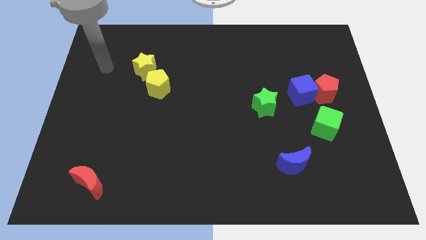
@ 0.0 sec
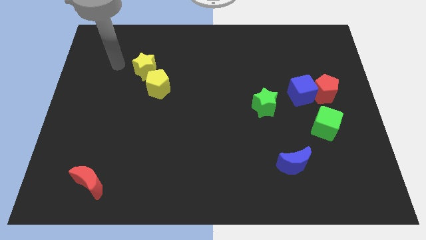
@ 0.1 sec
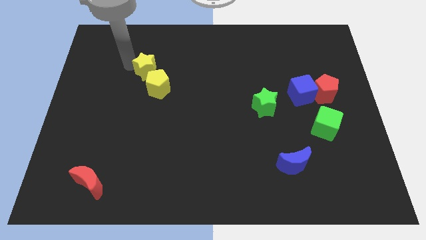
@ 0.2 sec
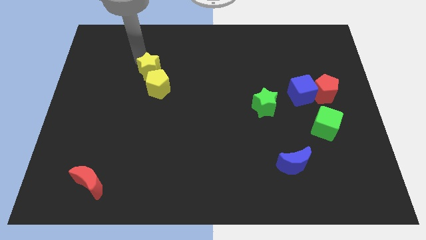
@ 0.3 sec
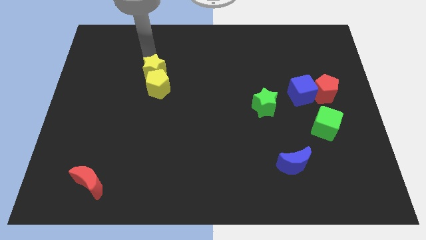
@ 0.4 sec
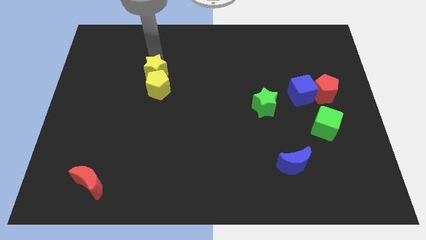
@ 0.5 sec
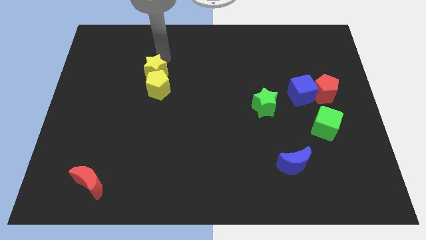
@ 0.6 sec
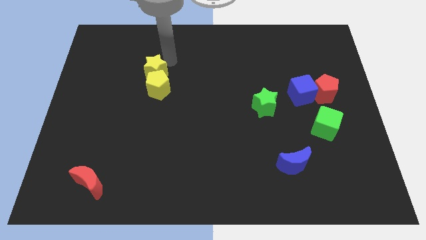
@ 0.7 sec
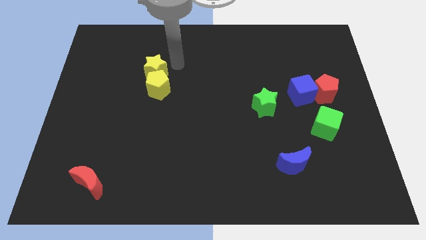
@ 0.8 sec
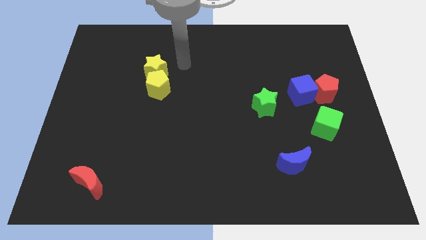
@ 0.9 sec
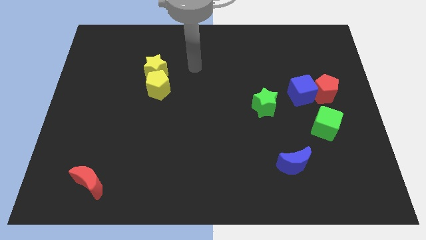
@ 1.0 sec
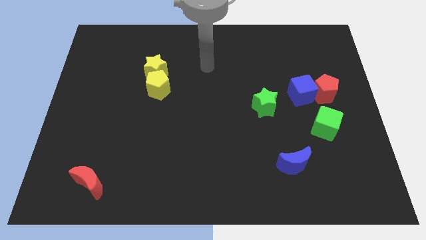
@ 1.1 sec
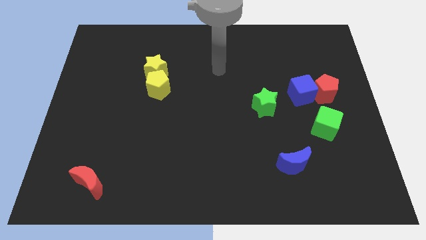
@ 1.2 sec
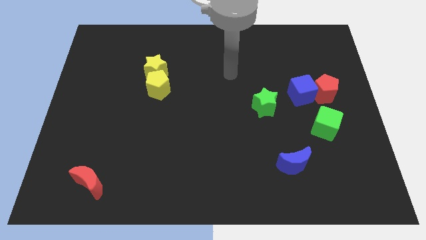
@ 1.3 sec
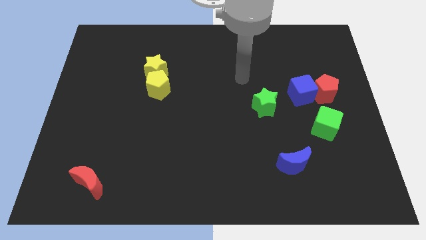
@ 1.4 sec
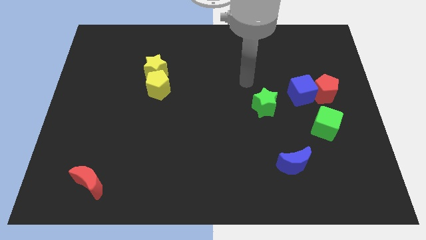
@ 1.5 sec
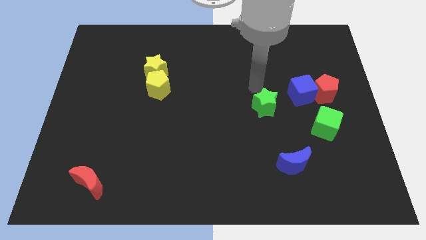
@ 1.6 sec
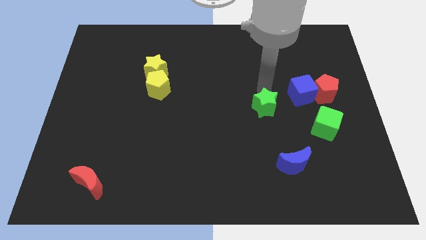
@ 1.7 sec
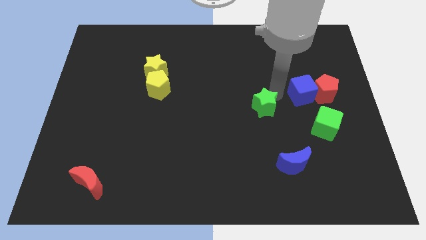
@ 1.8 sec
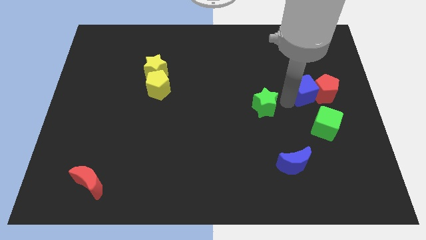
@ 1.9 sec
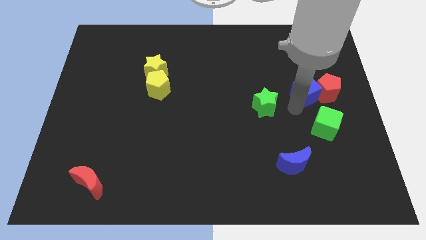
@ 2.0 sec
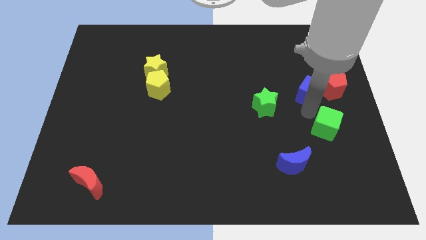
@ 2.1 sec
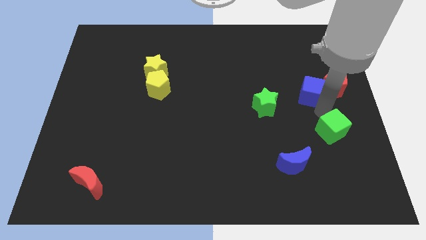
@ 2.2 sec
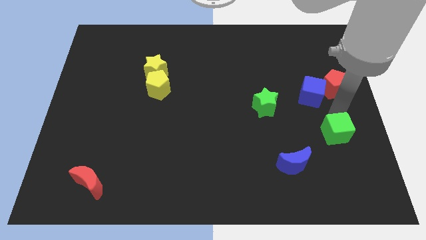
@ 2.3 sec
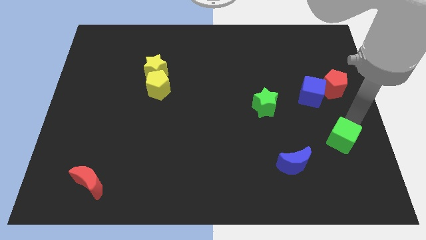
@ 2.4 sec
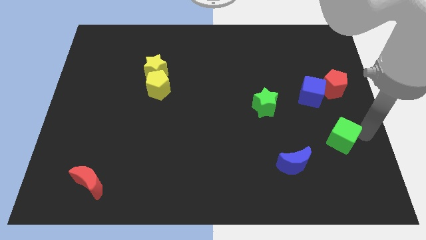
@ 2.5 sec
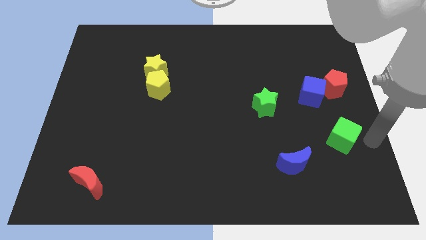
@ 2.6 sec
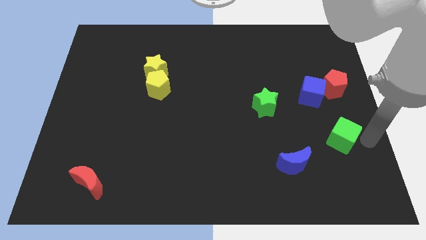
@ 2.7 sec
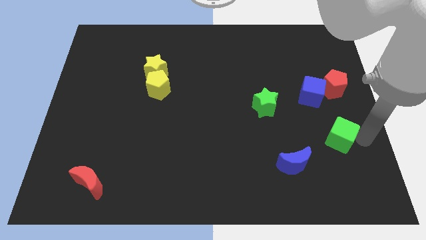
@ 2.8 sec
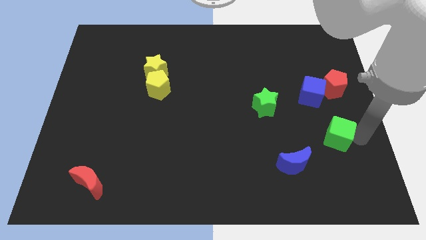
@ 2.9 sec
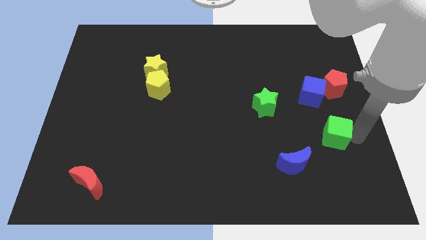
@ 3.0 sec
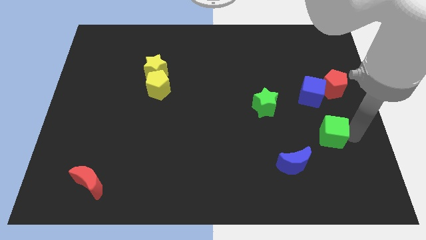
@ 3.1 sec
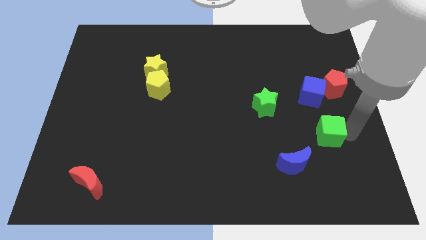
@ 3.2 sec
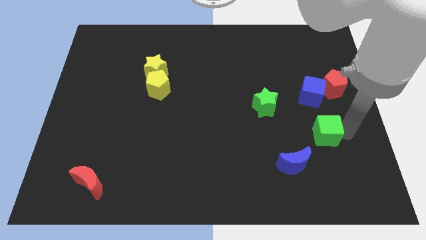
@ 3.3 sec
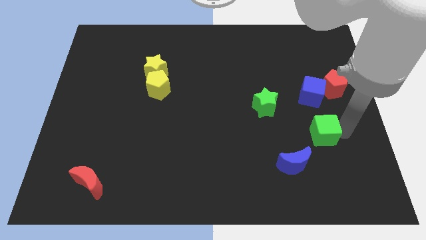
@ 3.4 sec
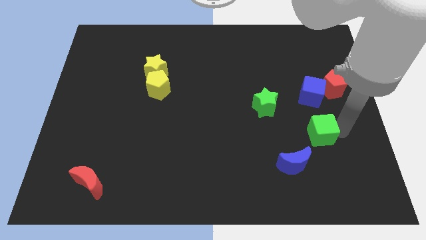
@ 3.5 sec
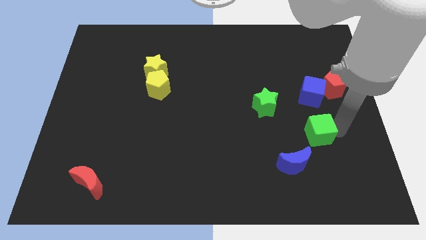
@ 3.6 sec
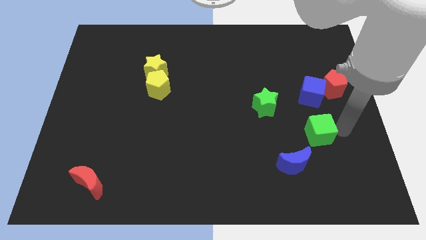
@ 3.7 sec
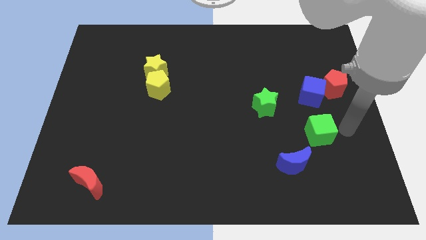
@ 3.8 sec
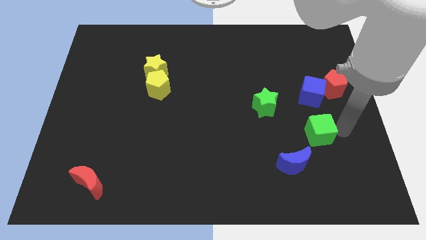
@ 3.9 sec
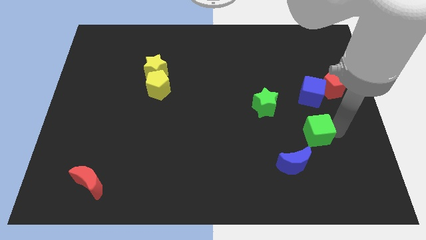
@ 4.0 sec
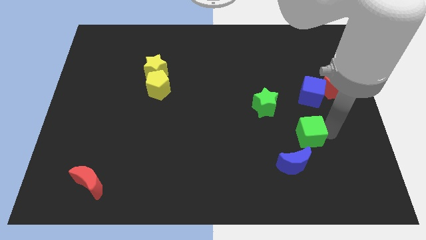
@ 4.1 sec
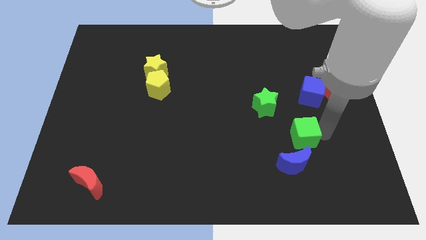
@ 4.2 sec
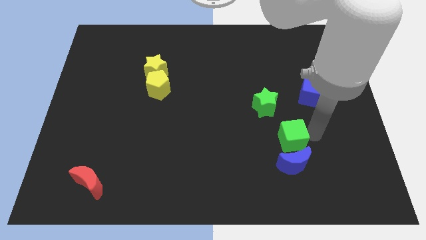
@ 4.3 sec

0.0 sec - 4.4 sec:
slide the green cube somewhat diagonally down and left

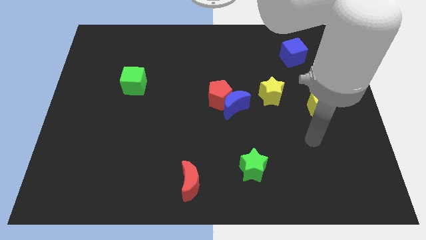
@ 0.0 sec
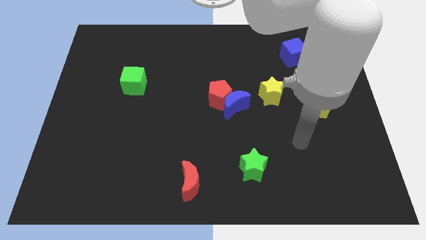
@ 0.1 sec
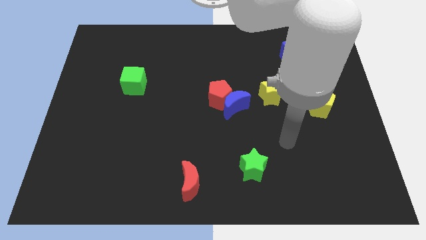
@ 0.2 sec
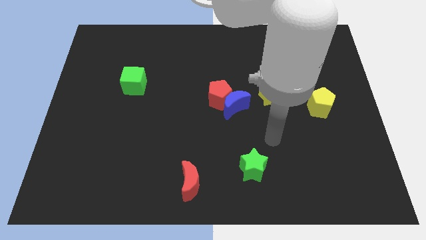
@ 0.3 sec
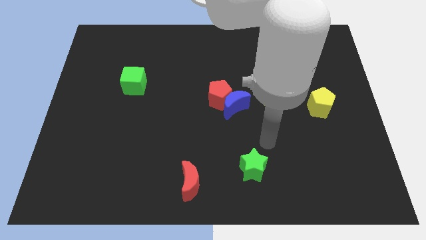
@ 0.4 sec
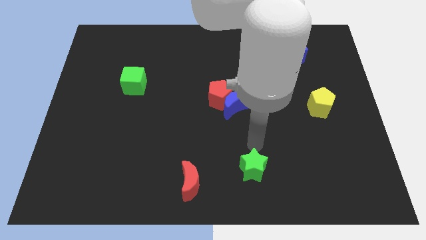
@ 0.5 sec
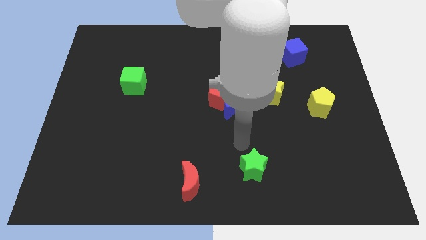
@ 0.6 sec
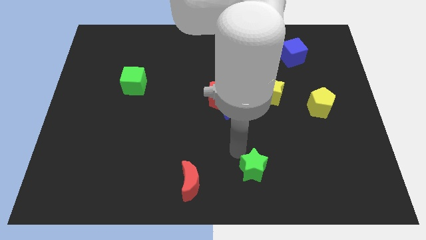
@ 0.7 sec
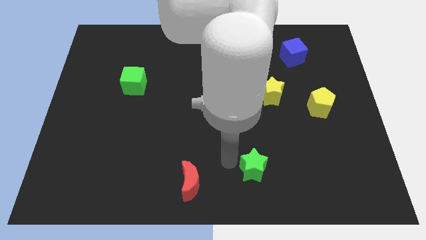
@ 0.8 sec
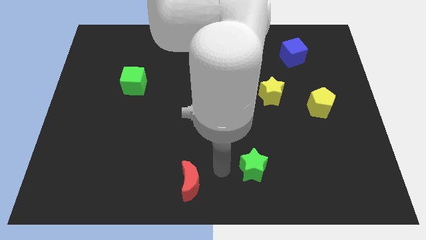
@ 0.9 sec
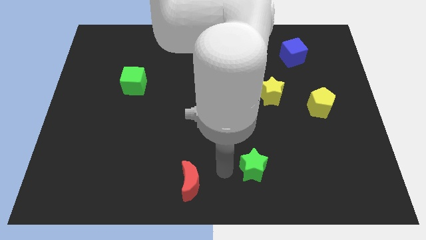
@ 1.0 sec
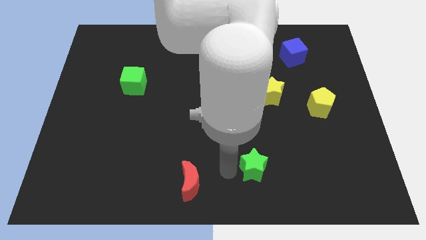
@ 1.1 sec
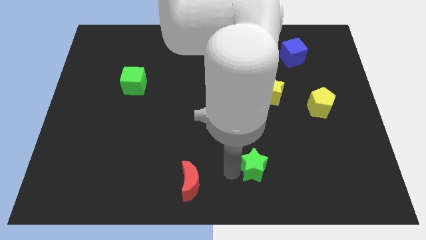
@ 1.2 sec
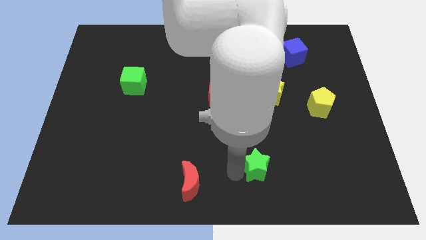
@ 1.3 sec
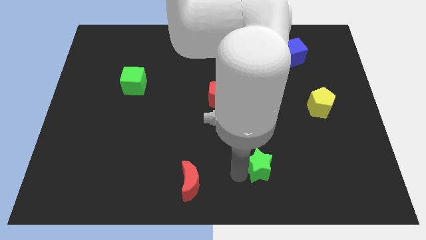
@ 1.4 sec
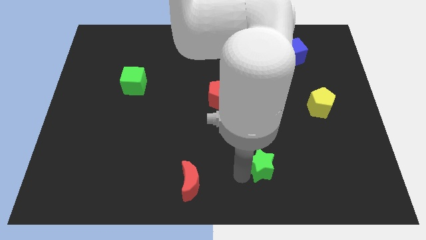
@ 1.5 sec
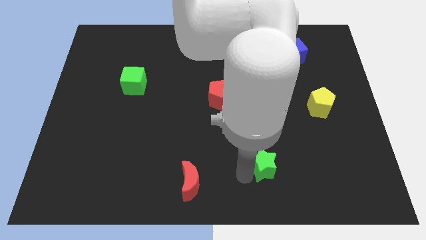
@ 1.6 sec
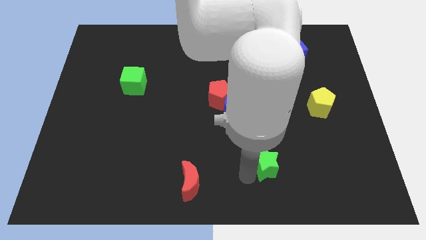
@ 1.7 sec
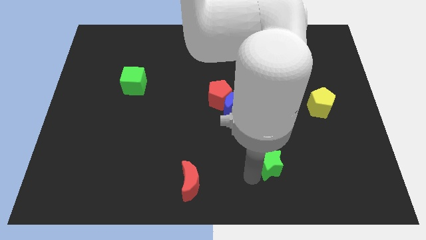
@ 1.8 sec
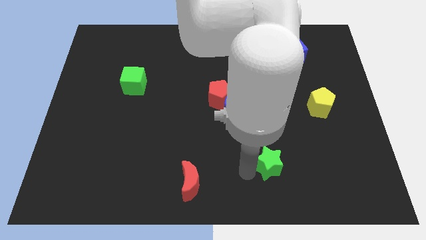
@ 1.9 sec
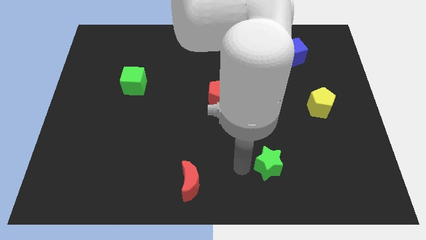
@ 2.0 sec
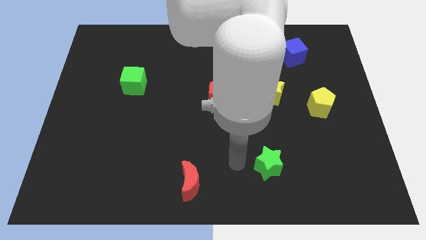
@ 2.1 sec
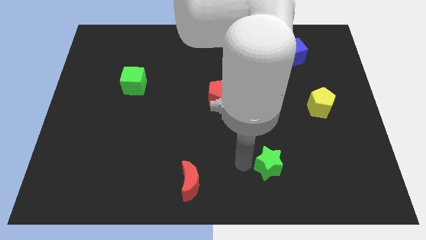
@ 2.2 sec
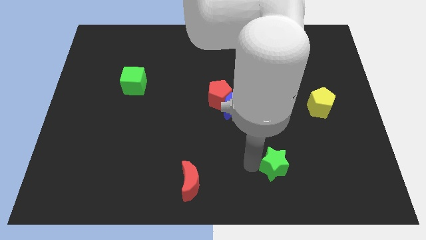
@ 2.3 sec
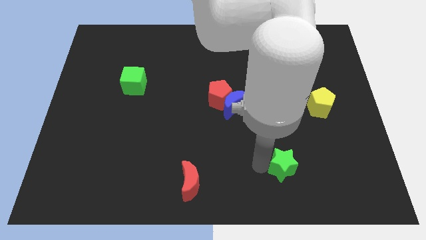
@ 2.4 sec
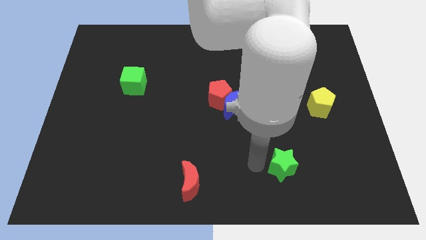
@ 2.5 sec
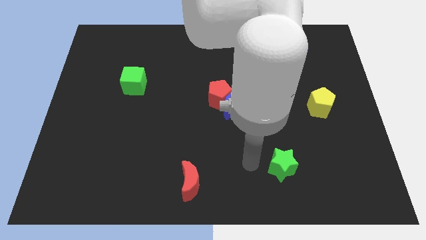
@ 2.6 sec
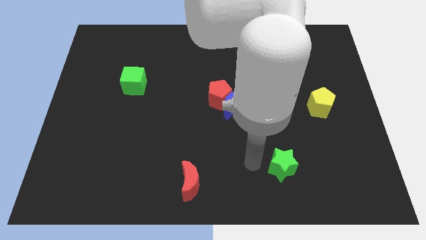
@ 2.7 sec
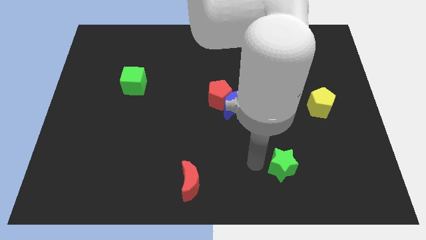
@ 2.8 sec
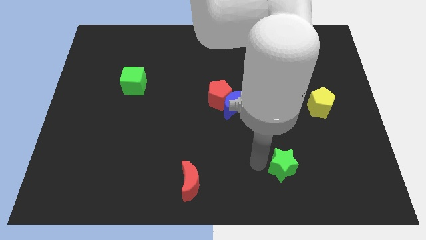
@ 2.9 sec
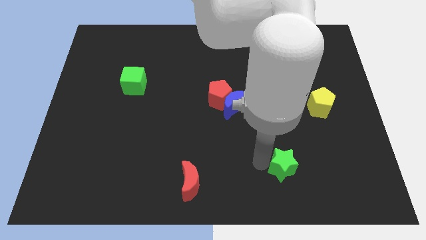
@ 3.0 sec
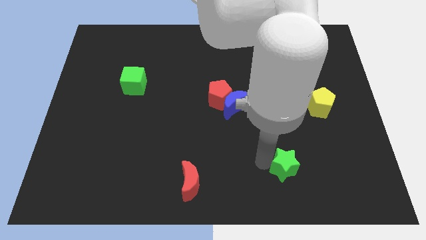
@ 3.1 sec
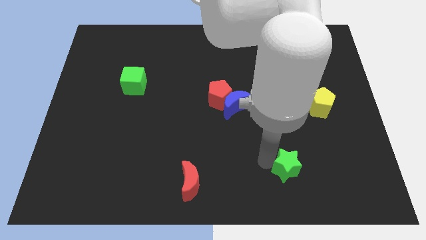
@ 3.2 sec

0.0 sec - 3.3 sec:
push the green star somewhat right

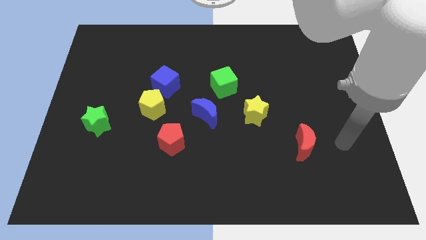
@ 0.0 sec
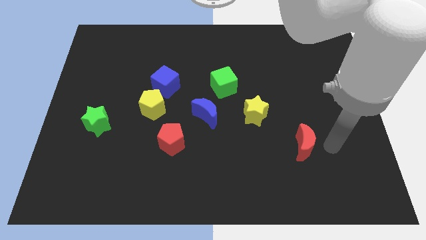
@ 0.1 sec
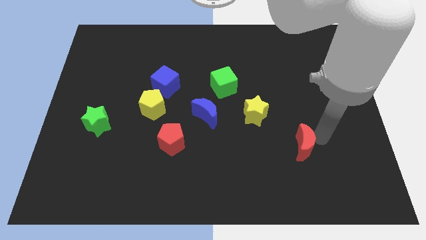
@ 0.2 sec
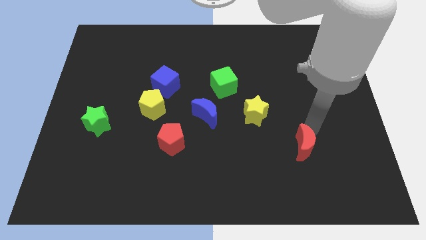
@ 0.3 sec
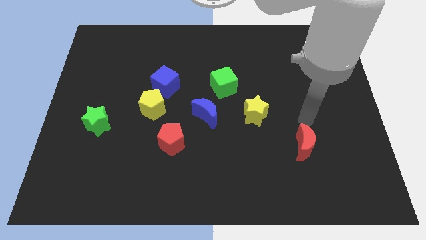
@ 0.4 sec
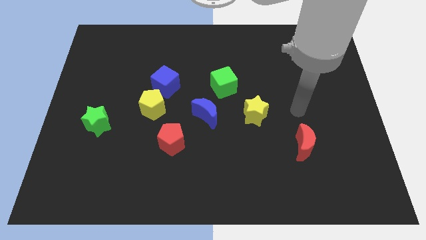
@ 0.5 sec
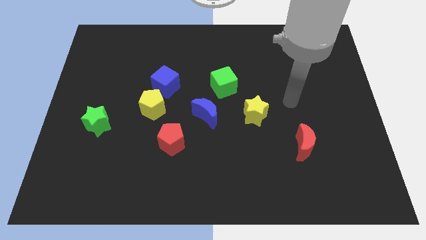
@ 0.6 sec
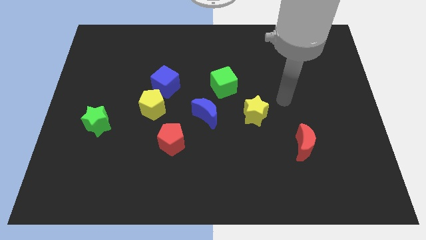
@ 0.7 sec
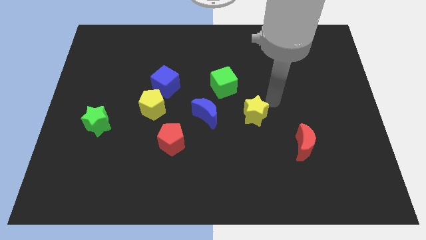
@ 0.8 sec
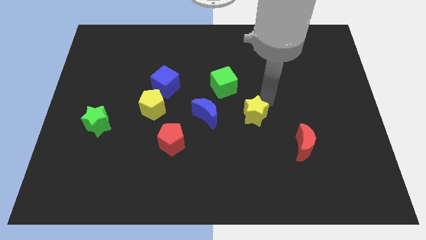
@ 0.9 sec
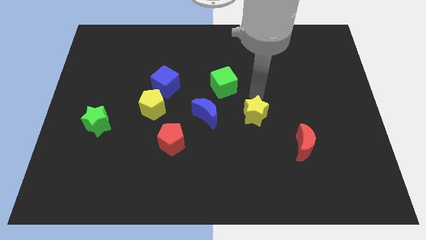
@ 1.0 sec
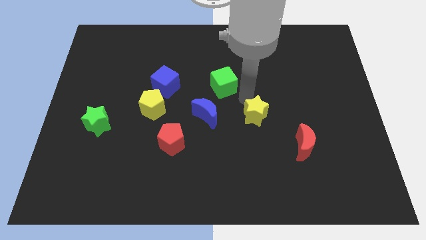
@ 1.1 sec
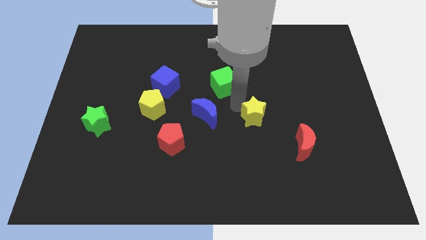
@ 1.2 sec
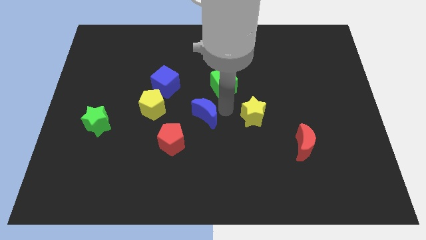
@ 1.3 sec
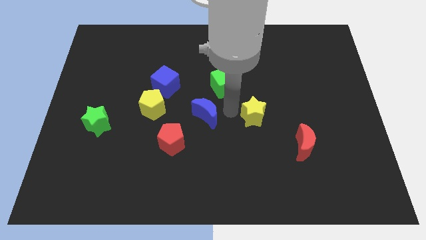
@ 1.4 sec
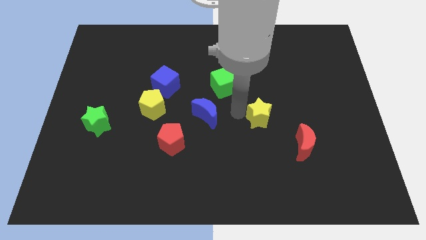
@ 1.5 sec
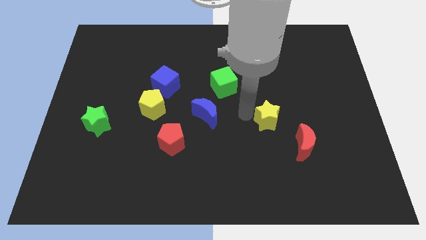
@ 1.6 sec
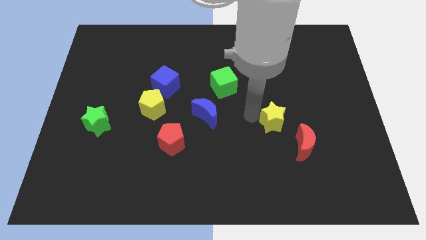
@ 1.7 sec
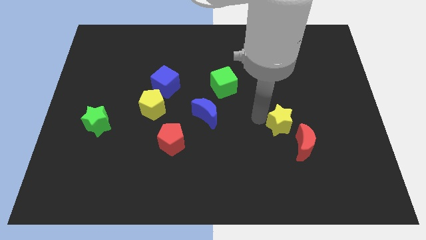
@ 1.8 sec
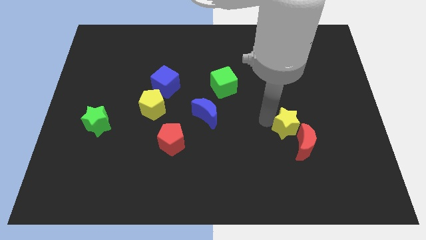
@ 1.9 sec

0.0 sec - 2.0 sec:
slide the yellow star down and right slightly
